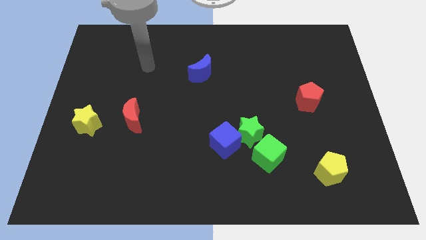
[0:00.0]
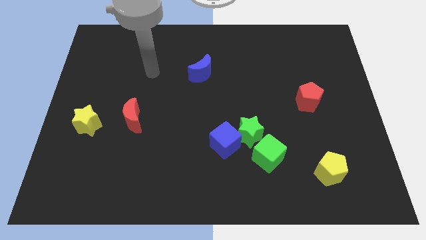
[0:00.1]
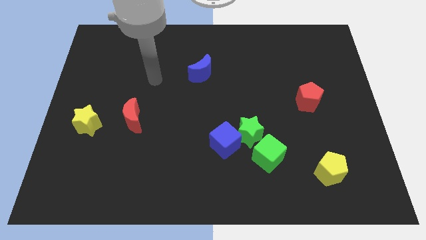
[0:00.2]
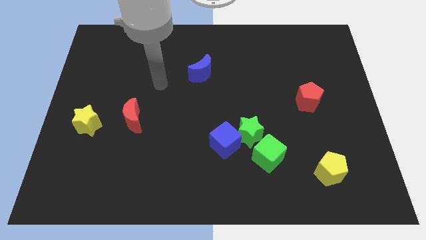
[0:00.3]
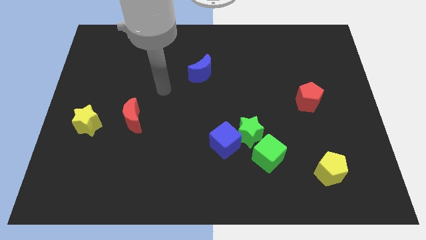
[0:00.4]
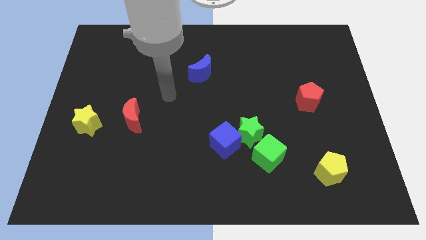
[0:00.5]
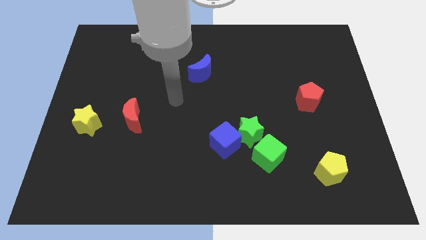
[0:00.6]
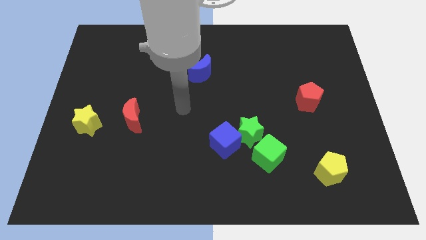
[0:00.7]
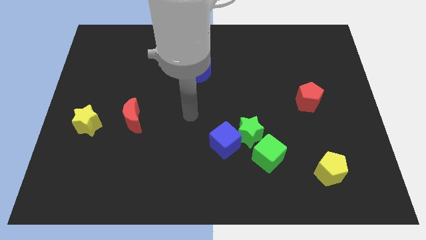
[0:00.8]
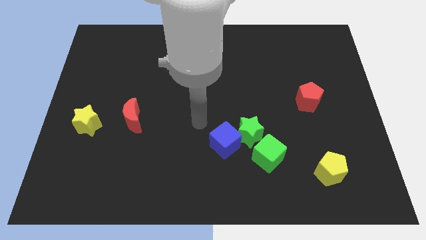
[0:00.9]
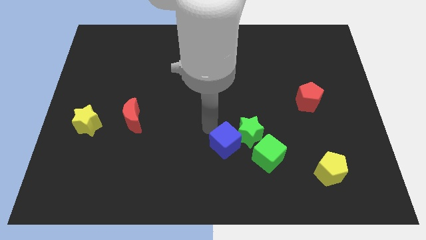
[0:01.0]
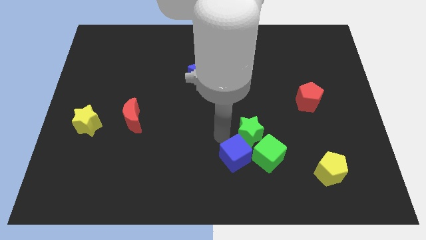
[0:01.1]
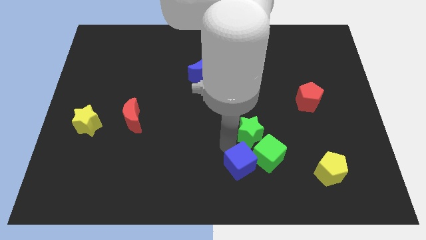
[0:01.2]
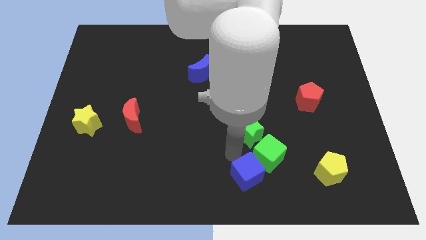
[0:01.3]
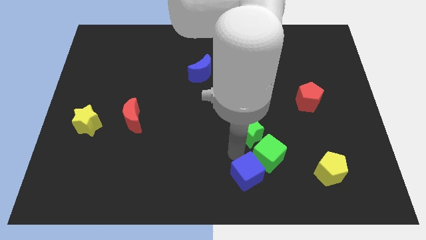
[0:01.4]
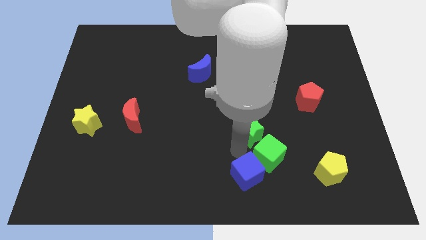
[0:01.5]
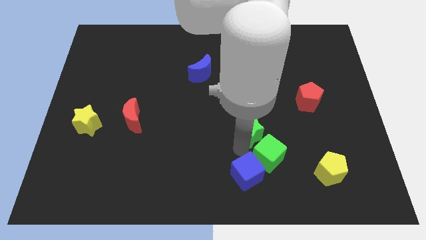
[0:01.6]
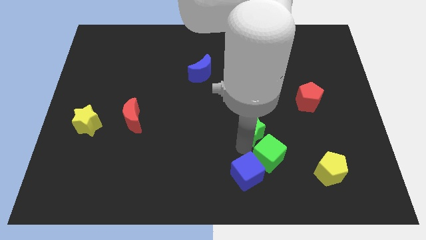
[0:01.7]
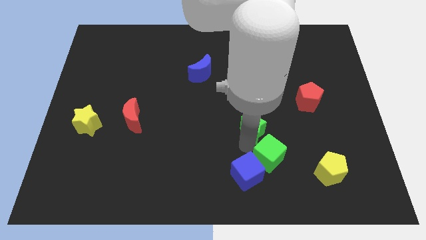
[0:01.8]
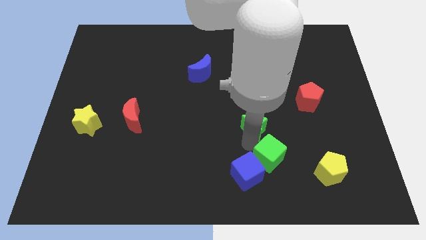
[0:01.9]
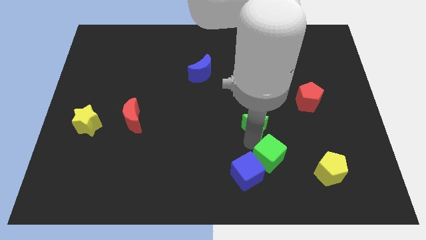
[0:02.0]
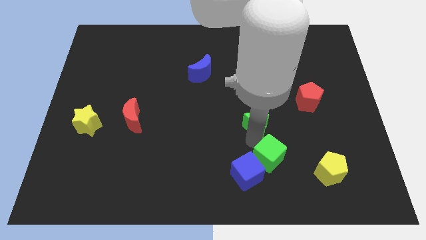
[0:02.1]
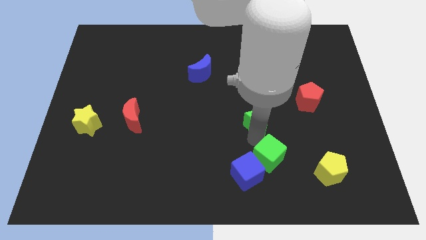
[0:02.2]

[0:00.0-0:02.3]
move the green star away from the blue cube and green cube

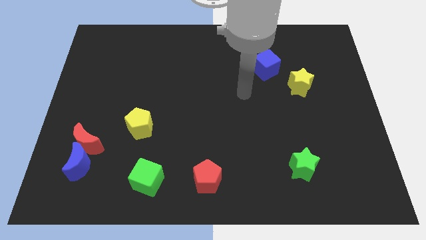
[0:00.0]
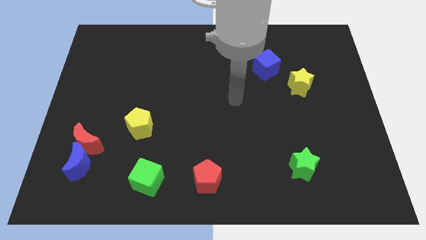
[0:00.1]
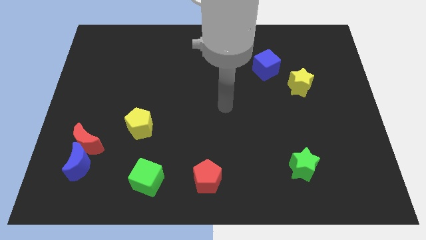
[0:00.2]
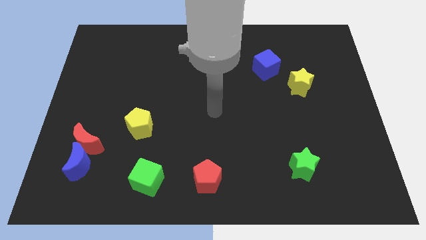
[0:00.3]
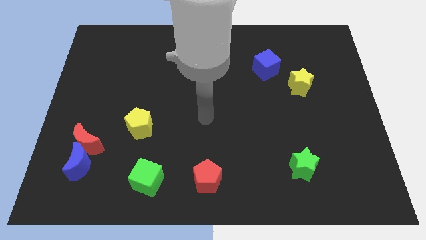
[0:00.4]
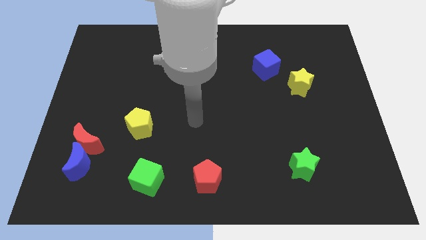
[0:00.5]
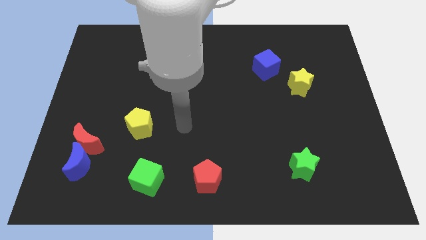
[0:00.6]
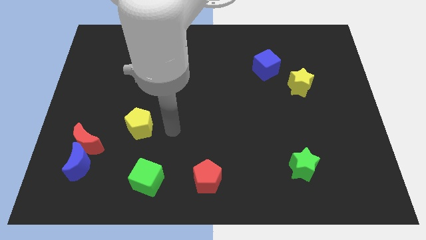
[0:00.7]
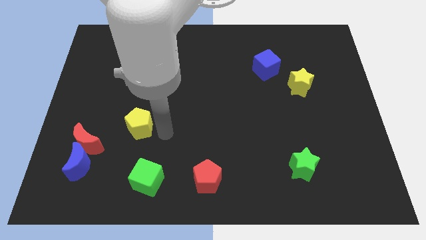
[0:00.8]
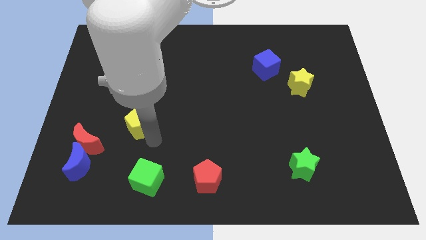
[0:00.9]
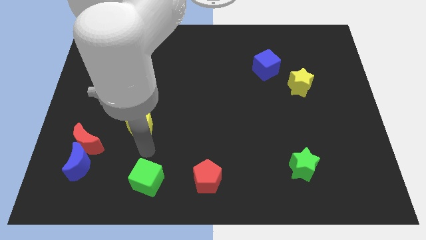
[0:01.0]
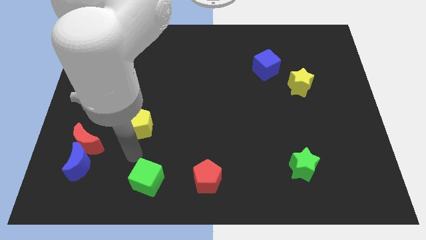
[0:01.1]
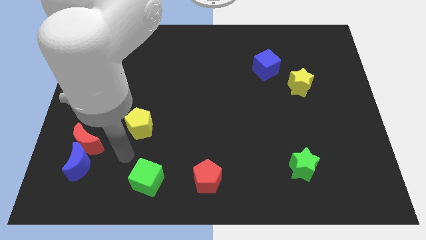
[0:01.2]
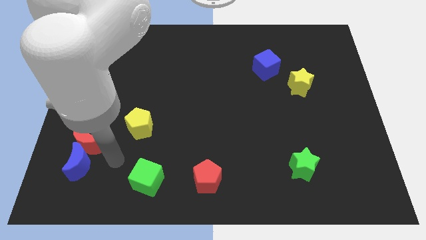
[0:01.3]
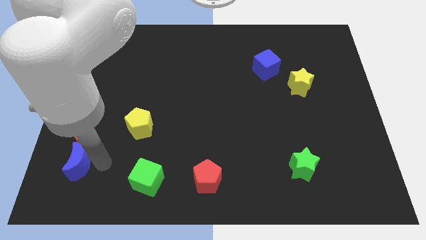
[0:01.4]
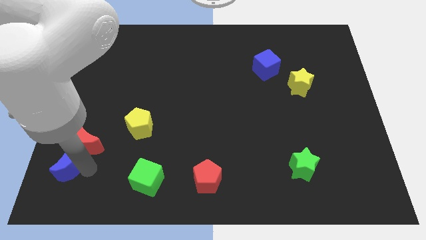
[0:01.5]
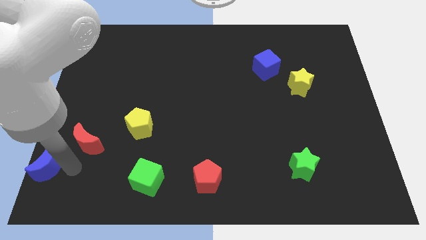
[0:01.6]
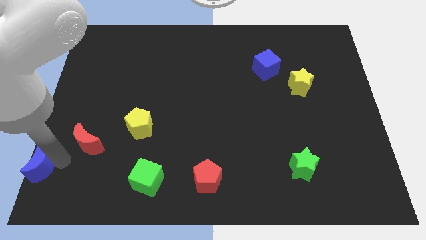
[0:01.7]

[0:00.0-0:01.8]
separate the red moon from the blue moon

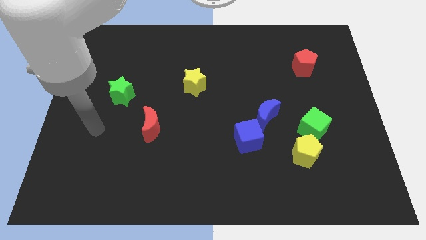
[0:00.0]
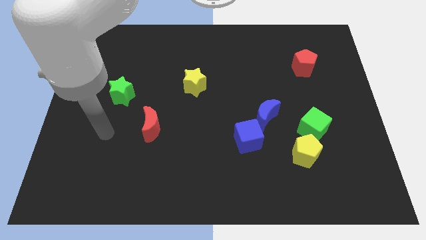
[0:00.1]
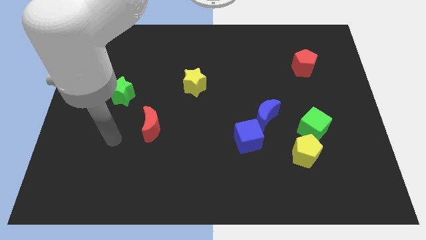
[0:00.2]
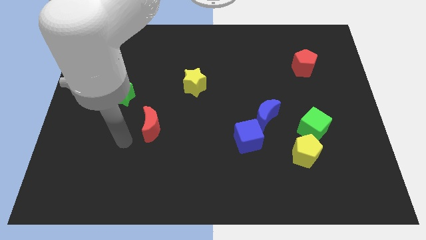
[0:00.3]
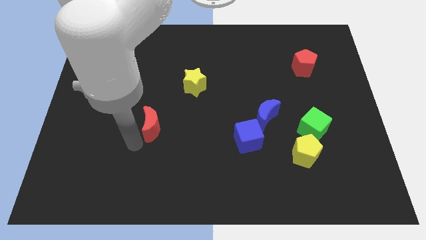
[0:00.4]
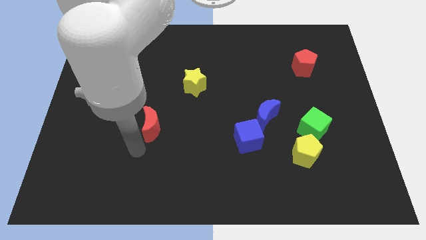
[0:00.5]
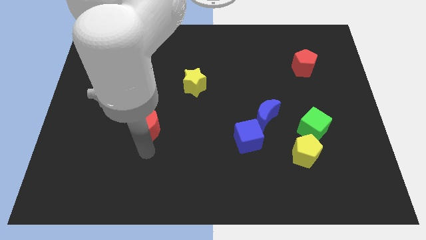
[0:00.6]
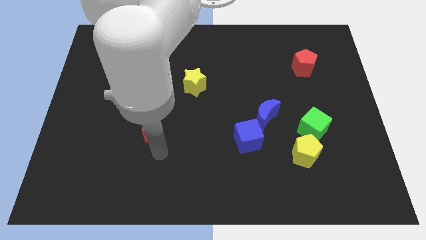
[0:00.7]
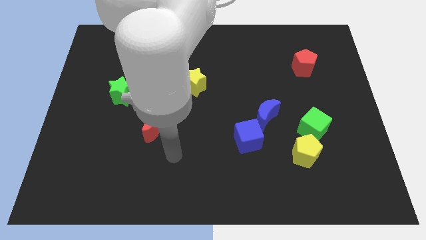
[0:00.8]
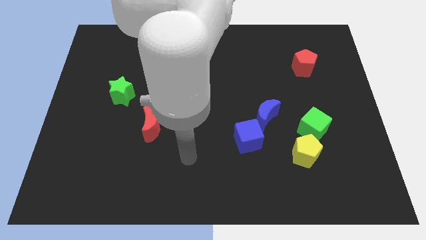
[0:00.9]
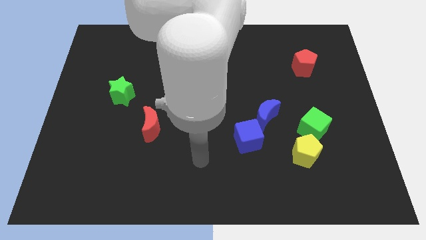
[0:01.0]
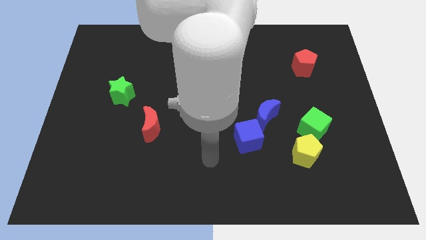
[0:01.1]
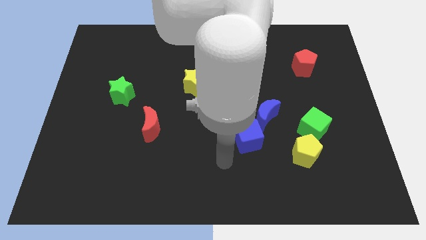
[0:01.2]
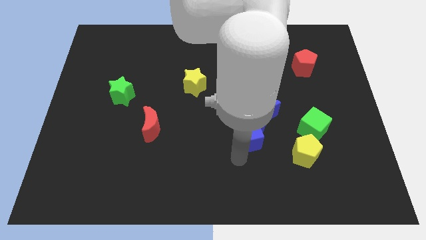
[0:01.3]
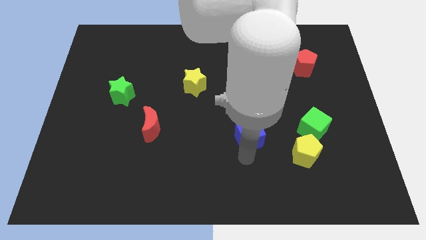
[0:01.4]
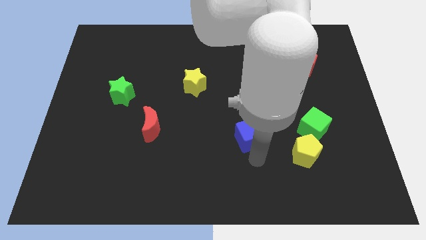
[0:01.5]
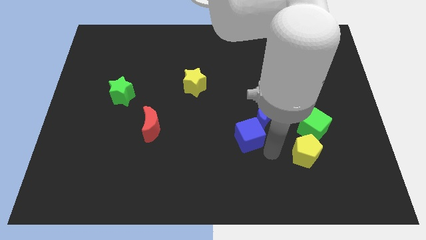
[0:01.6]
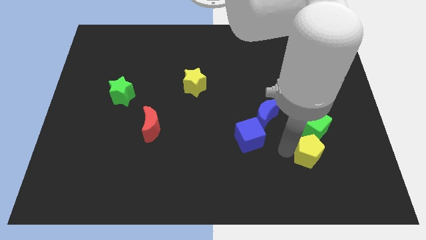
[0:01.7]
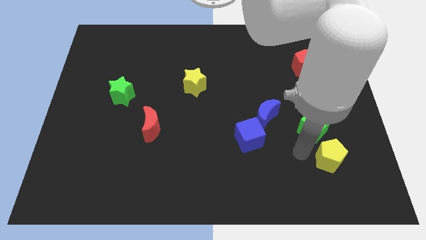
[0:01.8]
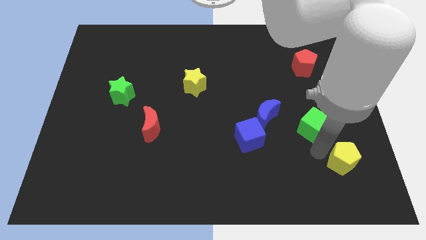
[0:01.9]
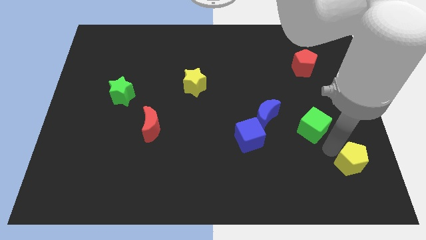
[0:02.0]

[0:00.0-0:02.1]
separate the green cube from the yellow pentagon

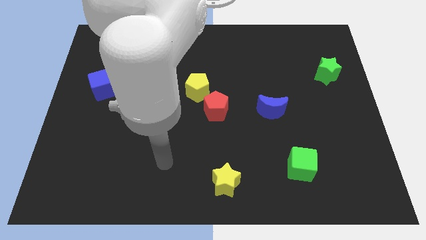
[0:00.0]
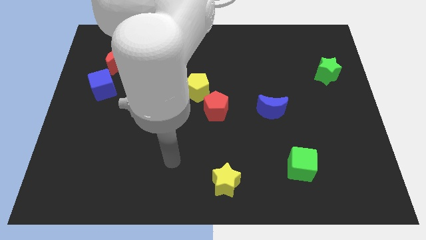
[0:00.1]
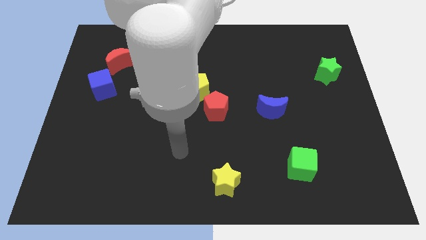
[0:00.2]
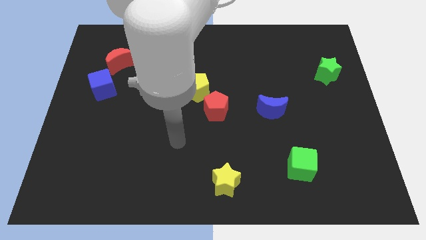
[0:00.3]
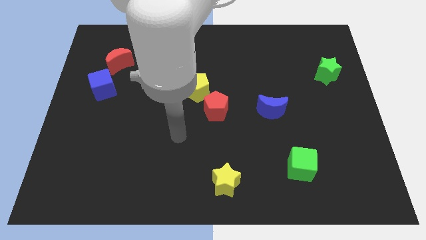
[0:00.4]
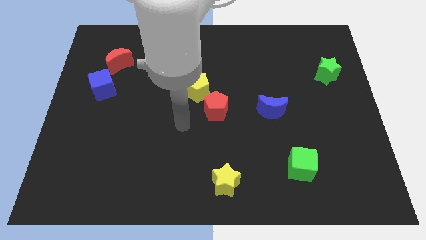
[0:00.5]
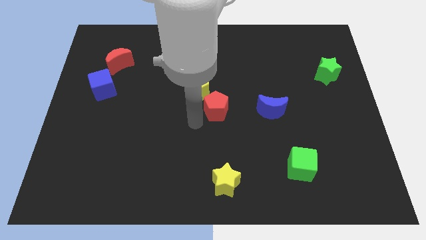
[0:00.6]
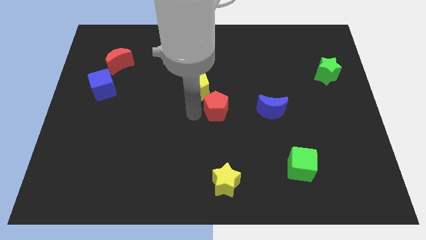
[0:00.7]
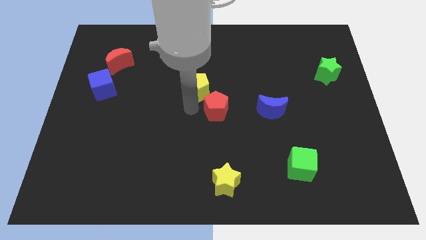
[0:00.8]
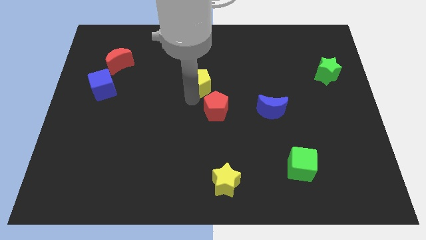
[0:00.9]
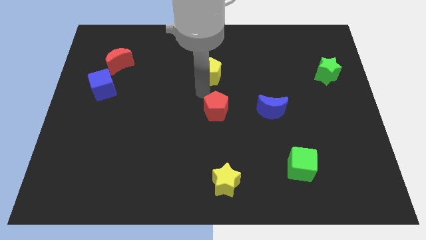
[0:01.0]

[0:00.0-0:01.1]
separate the red pentagon from the yellow pentagon

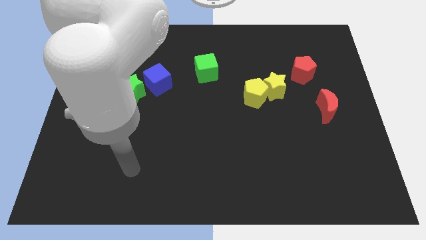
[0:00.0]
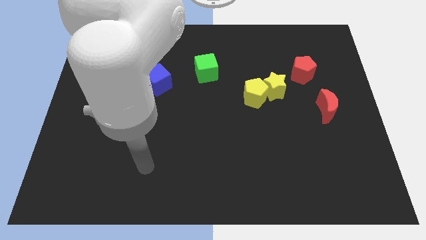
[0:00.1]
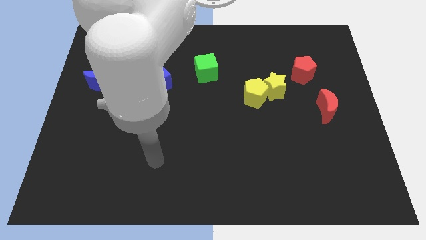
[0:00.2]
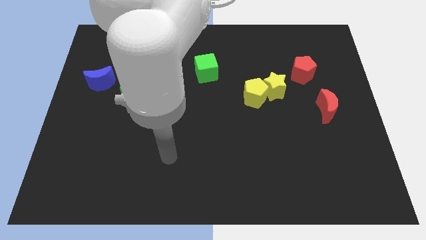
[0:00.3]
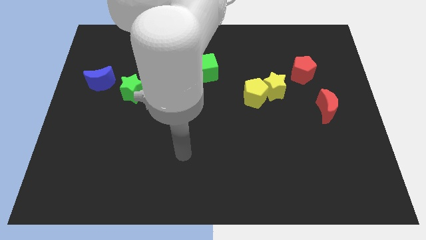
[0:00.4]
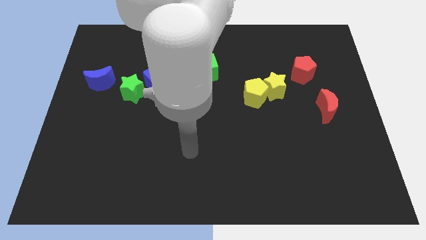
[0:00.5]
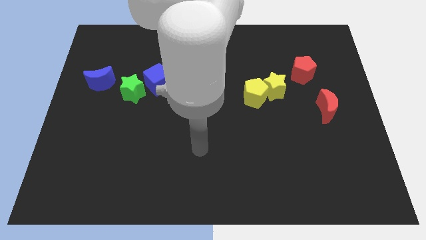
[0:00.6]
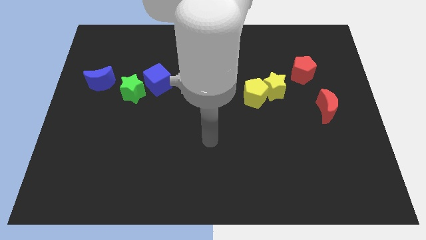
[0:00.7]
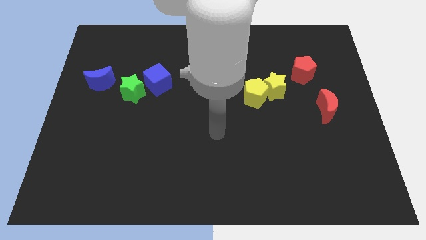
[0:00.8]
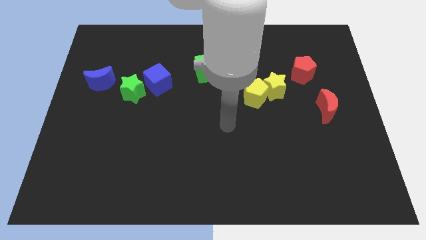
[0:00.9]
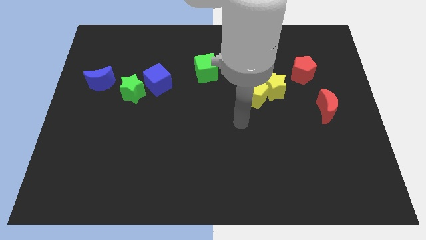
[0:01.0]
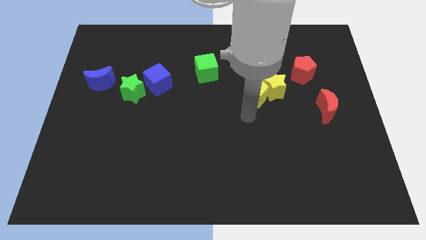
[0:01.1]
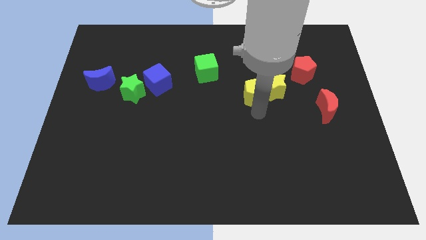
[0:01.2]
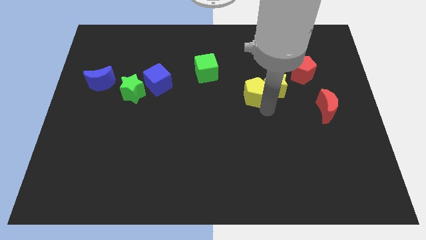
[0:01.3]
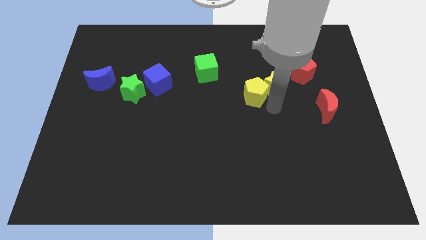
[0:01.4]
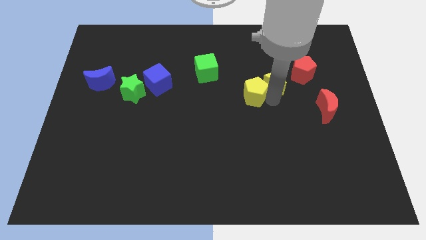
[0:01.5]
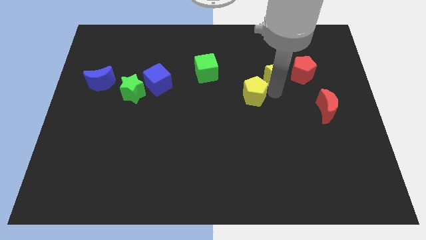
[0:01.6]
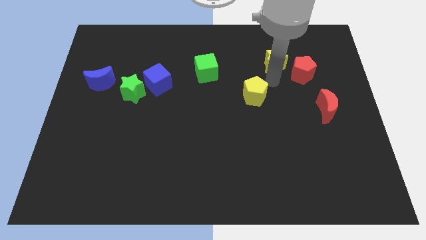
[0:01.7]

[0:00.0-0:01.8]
move the yellow pentagon away from the yellow star

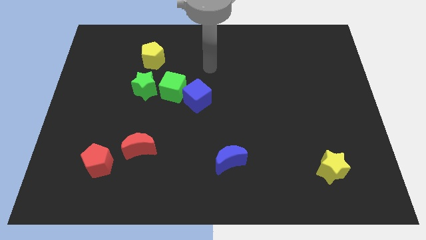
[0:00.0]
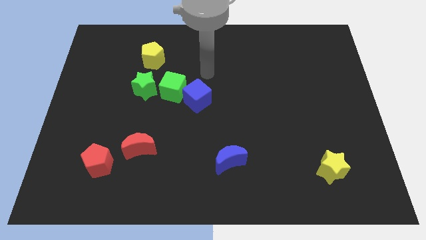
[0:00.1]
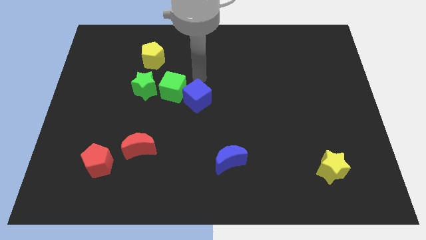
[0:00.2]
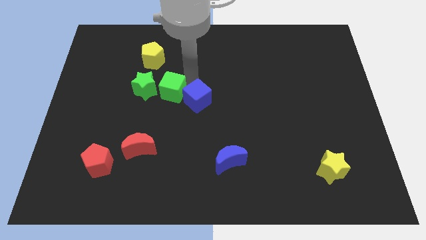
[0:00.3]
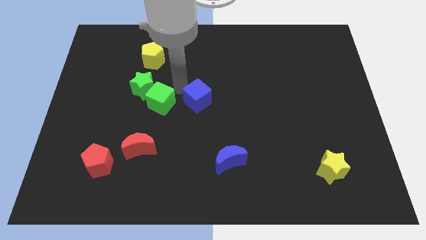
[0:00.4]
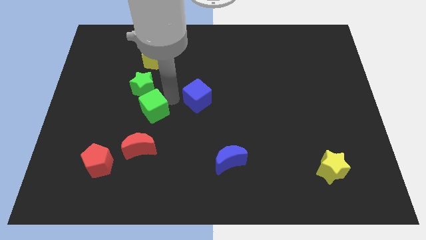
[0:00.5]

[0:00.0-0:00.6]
pull the blue cube apart from the green cube
